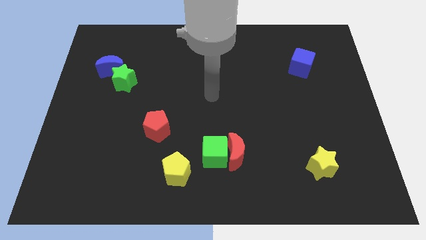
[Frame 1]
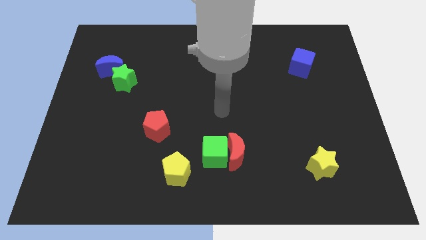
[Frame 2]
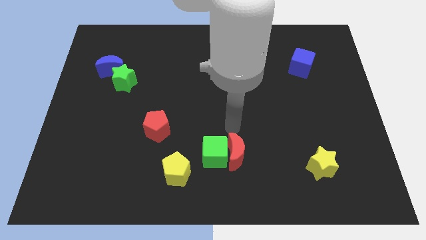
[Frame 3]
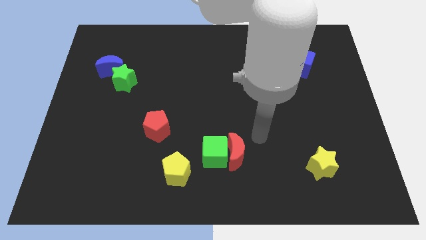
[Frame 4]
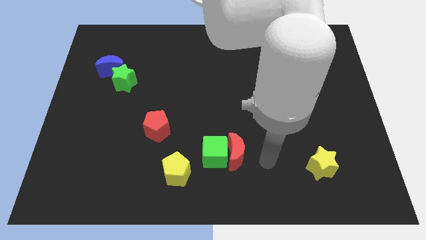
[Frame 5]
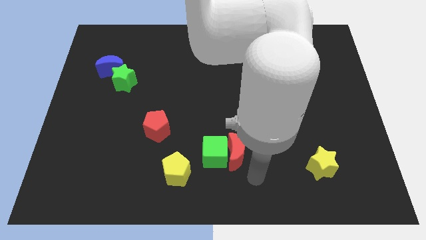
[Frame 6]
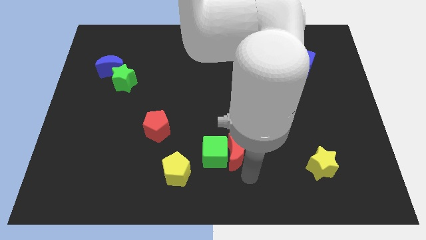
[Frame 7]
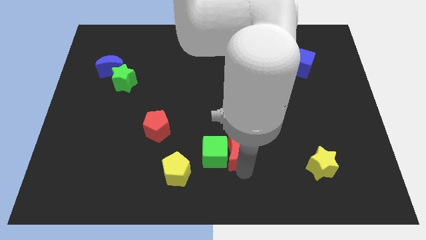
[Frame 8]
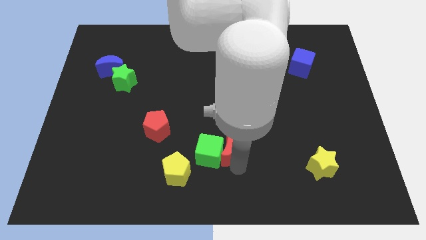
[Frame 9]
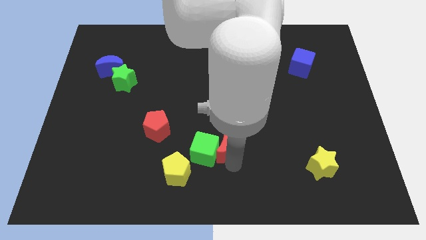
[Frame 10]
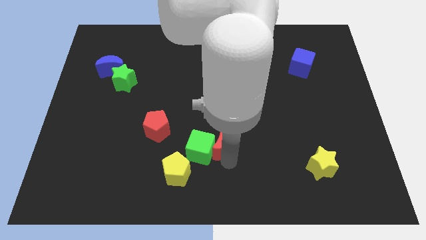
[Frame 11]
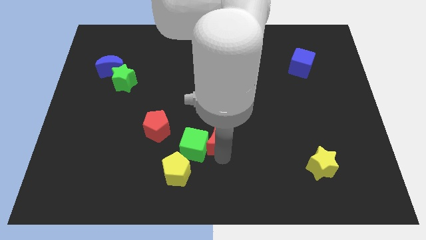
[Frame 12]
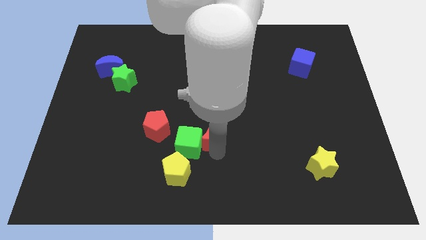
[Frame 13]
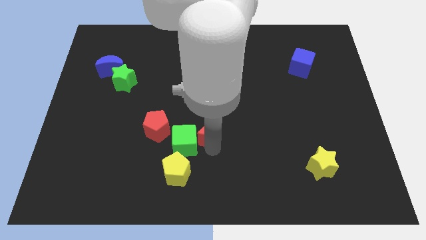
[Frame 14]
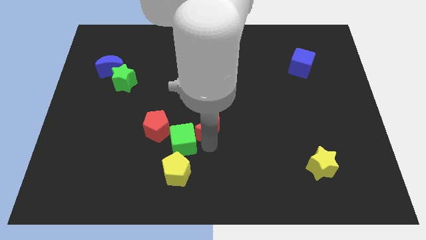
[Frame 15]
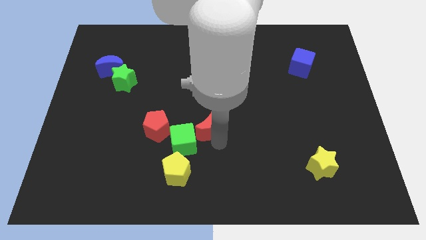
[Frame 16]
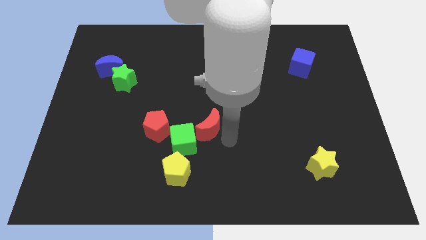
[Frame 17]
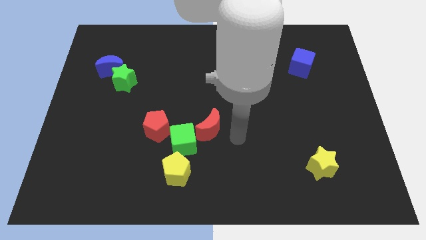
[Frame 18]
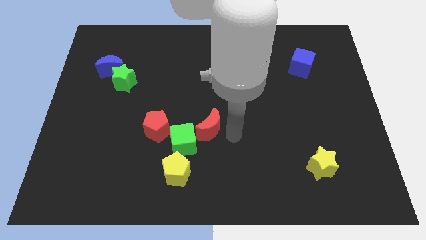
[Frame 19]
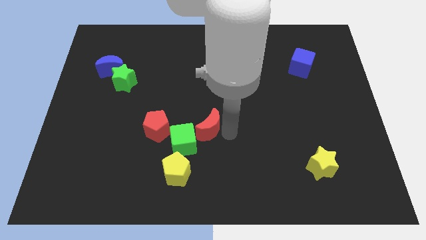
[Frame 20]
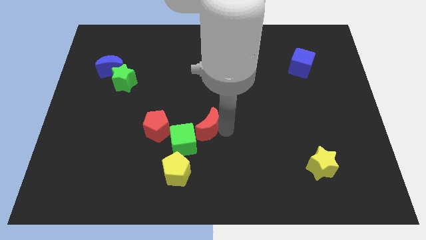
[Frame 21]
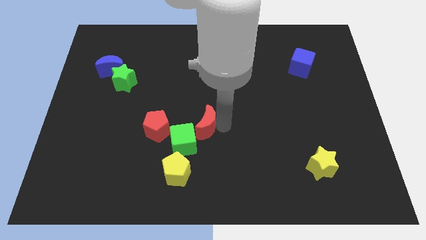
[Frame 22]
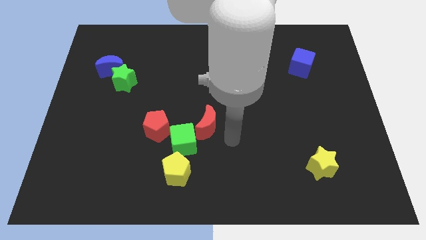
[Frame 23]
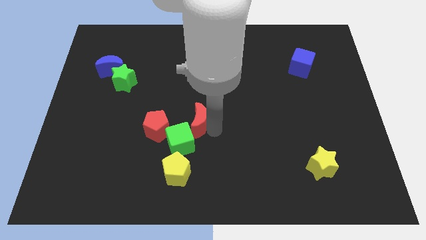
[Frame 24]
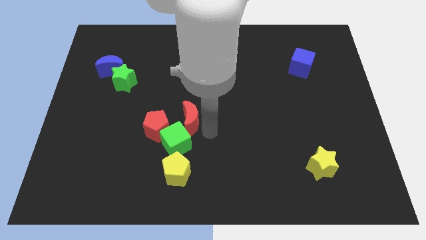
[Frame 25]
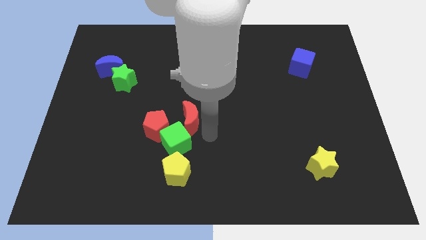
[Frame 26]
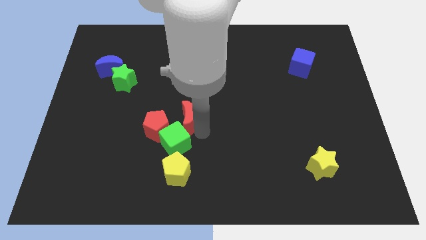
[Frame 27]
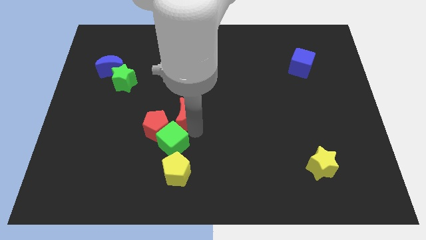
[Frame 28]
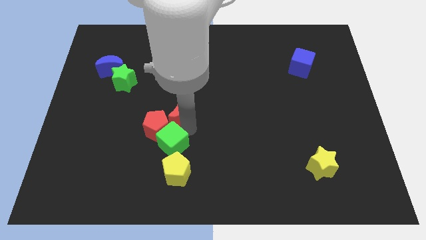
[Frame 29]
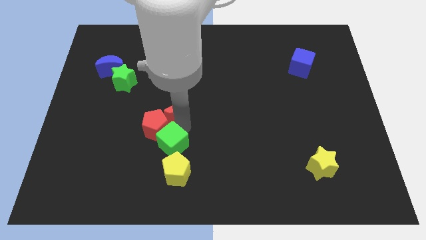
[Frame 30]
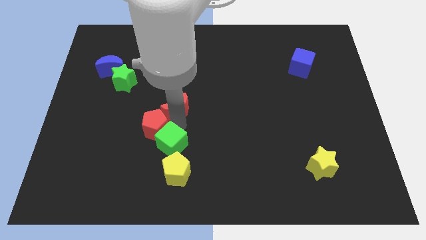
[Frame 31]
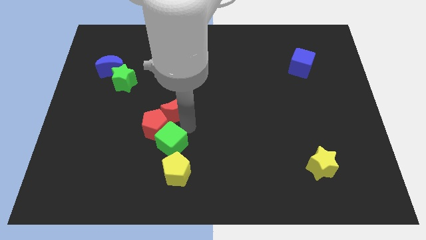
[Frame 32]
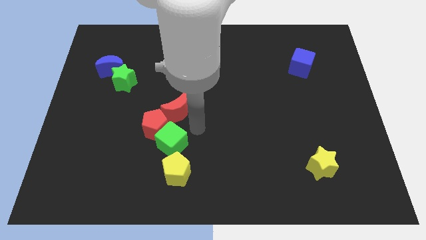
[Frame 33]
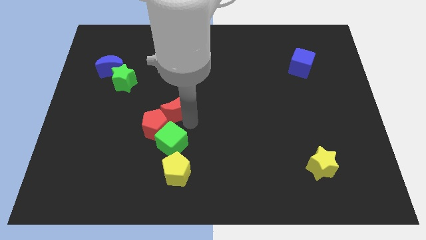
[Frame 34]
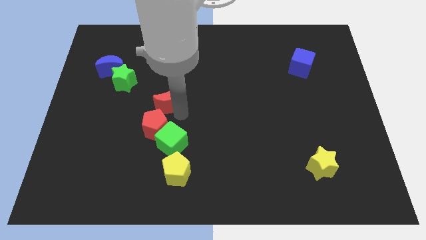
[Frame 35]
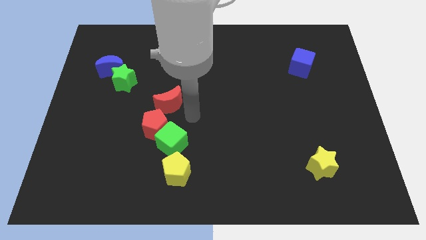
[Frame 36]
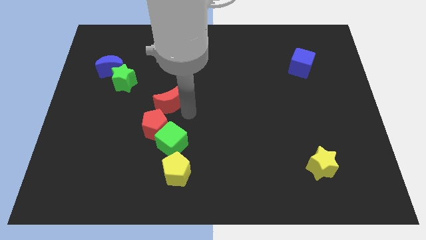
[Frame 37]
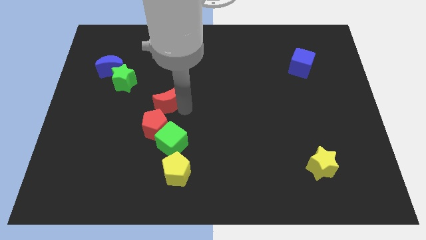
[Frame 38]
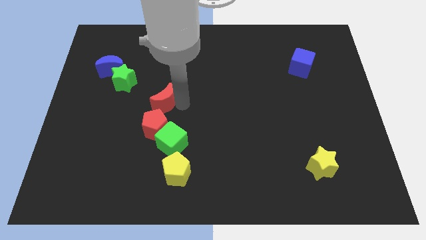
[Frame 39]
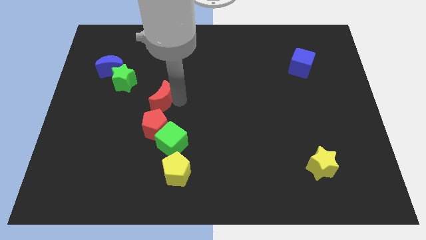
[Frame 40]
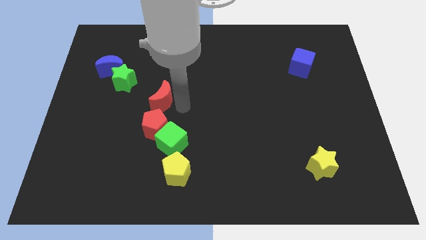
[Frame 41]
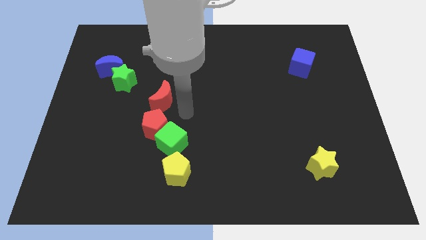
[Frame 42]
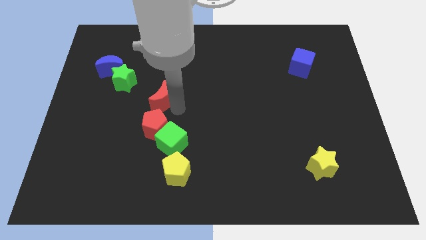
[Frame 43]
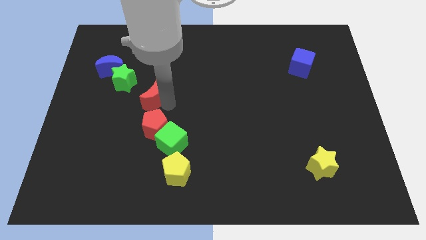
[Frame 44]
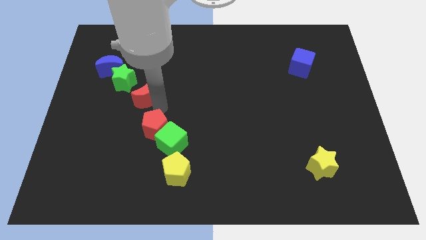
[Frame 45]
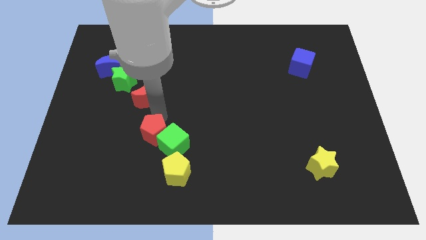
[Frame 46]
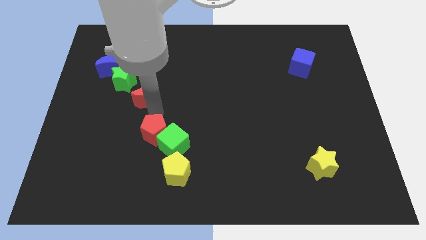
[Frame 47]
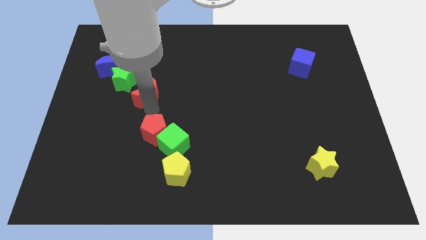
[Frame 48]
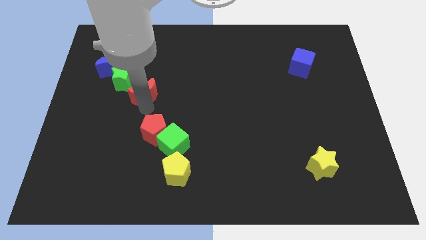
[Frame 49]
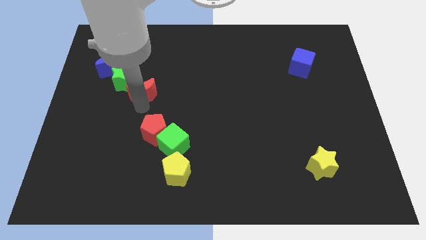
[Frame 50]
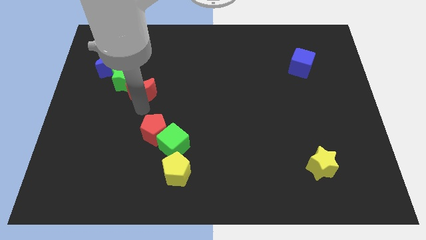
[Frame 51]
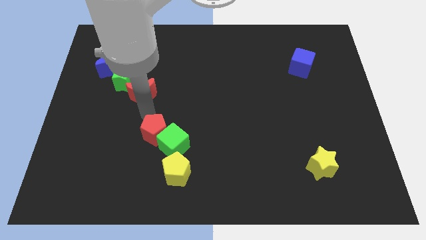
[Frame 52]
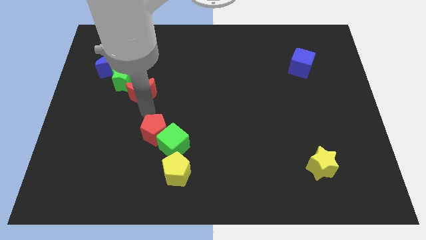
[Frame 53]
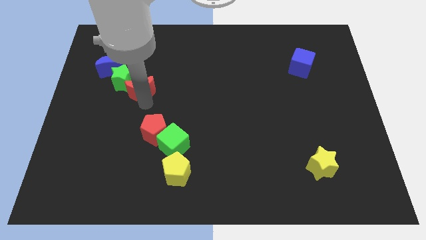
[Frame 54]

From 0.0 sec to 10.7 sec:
put the red moon close to the green star

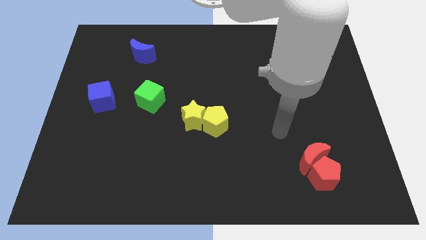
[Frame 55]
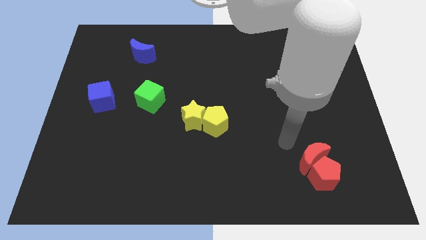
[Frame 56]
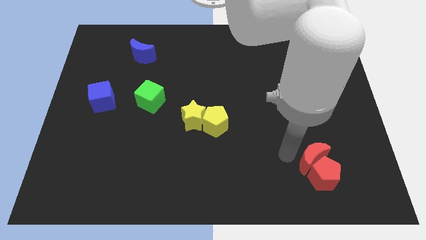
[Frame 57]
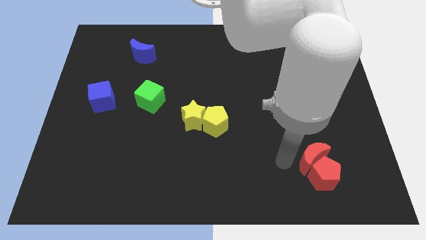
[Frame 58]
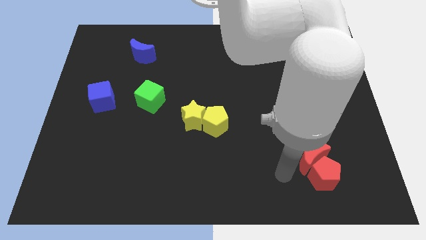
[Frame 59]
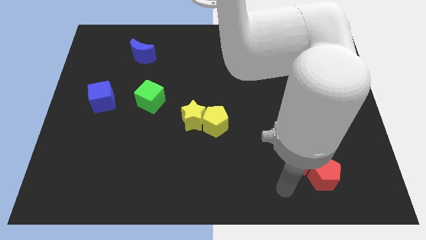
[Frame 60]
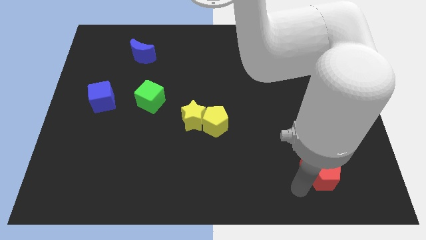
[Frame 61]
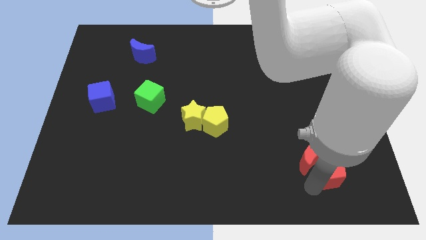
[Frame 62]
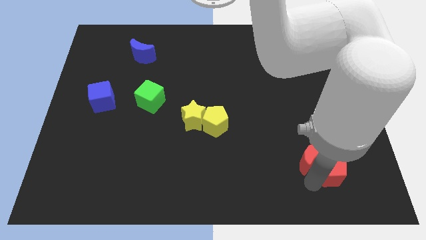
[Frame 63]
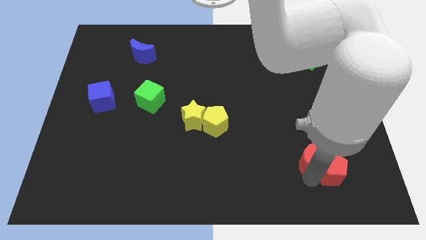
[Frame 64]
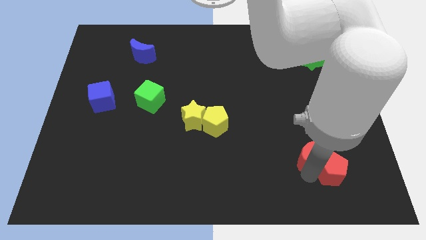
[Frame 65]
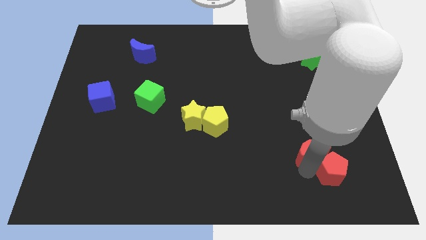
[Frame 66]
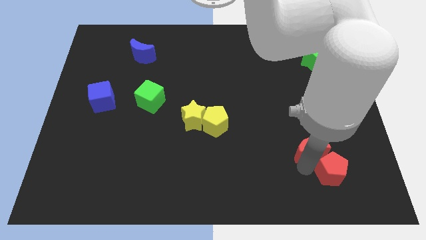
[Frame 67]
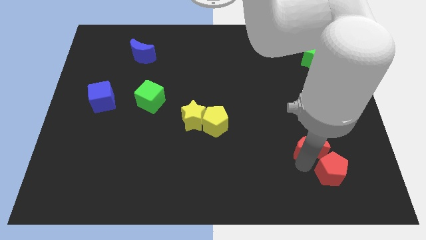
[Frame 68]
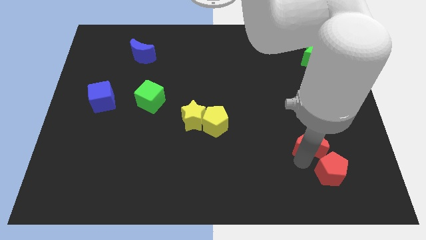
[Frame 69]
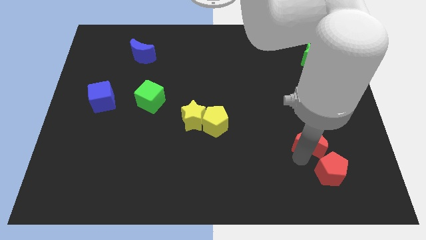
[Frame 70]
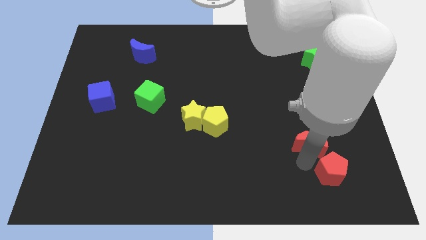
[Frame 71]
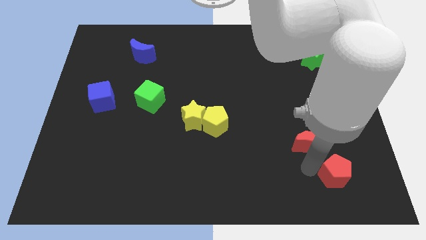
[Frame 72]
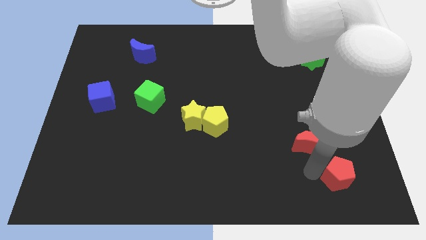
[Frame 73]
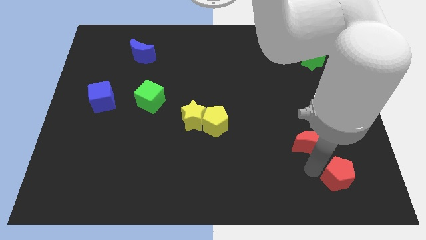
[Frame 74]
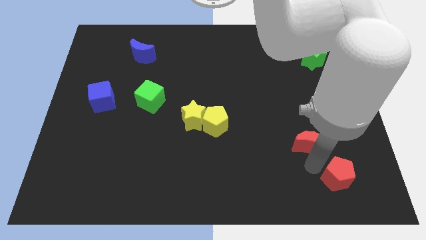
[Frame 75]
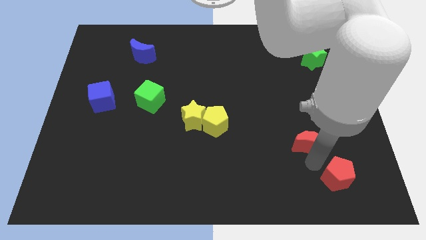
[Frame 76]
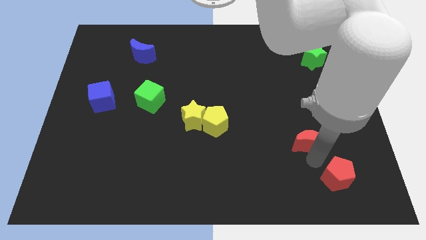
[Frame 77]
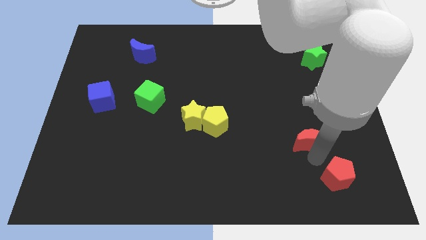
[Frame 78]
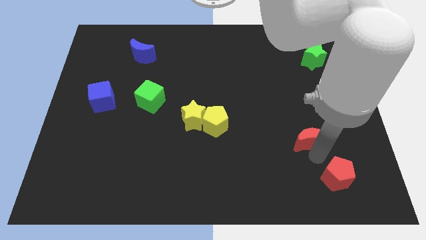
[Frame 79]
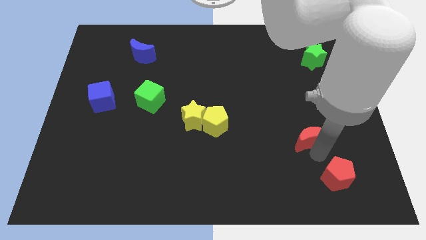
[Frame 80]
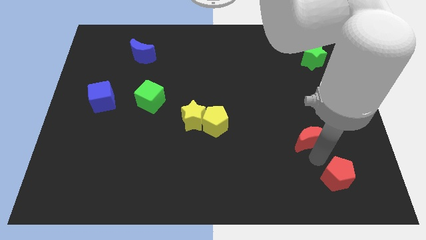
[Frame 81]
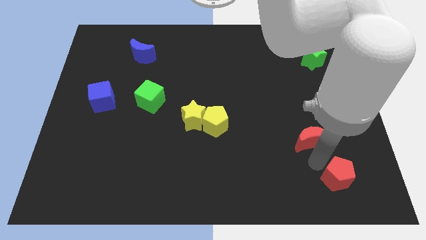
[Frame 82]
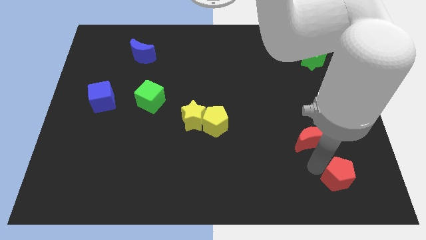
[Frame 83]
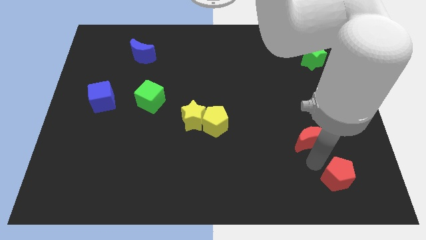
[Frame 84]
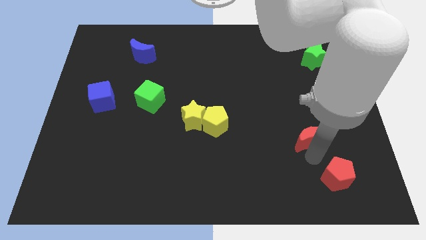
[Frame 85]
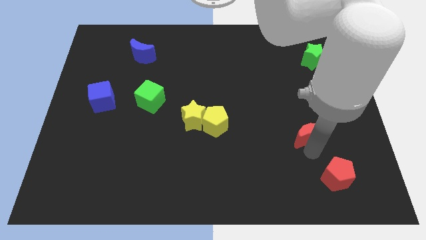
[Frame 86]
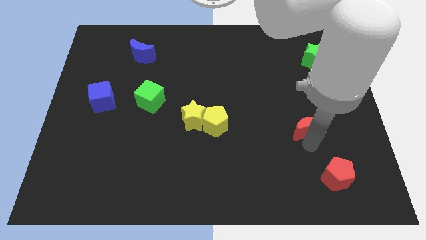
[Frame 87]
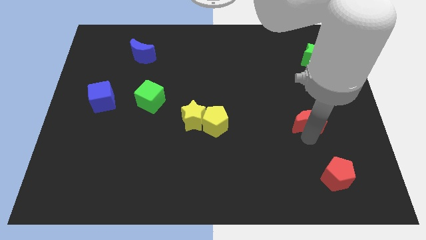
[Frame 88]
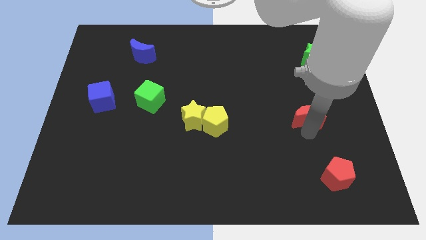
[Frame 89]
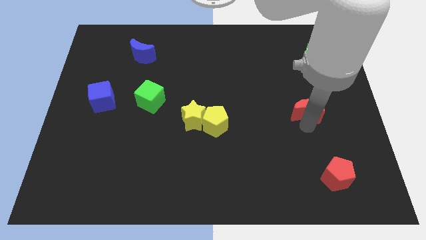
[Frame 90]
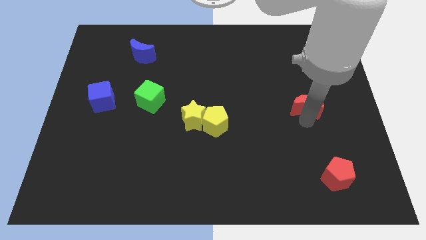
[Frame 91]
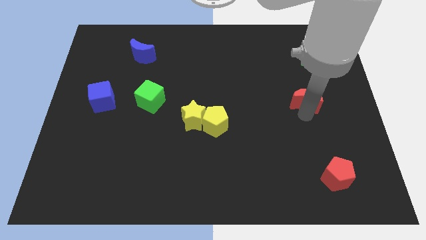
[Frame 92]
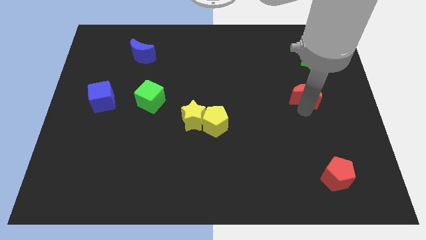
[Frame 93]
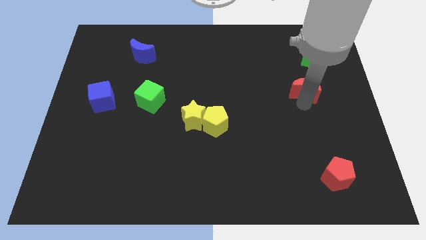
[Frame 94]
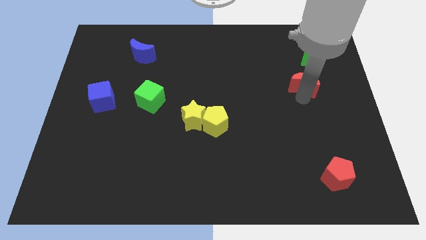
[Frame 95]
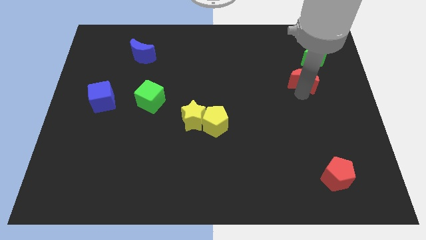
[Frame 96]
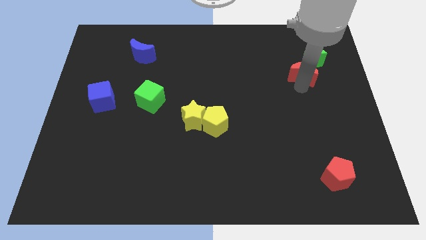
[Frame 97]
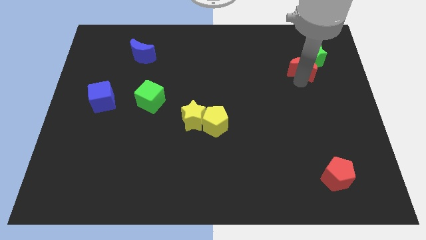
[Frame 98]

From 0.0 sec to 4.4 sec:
move the red moon next to the green star
